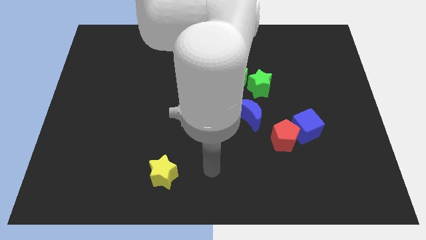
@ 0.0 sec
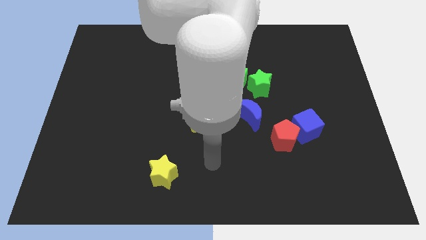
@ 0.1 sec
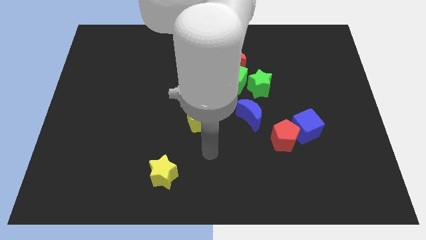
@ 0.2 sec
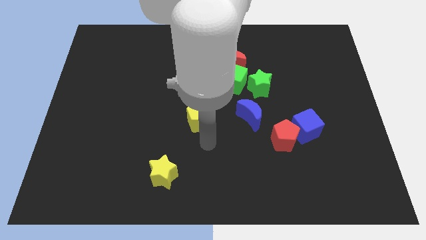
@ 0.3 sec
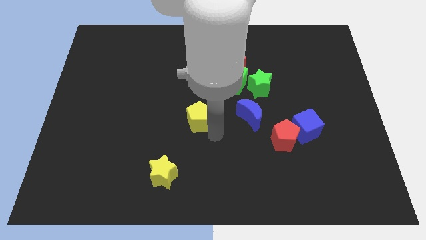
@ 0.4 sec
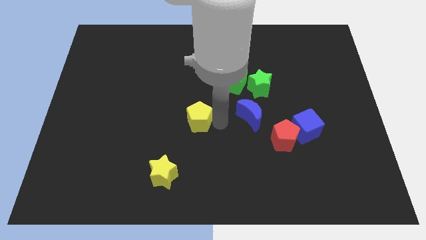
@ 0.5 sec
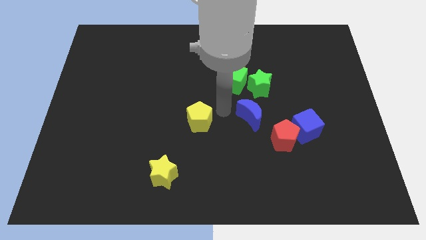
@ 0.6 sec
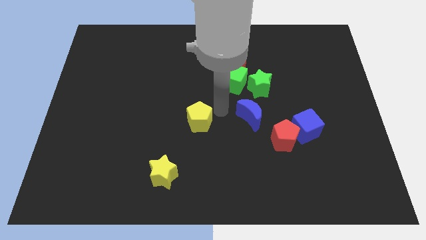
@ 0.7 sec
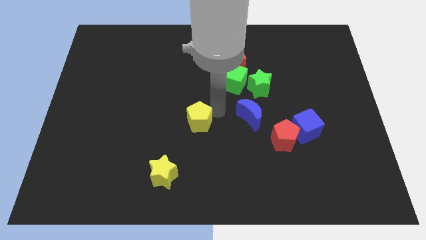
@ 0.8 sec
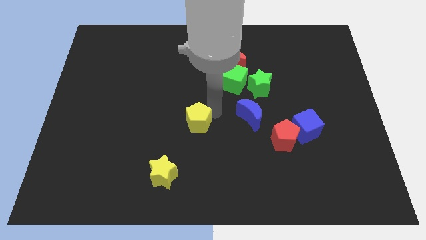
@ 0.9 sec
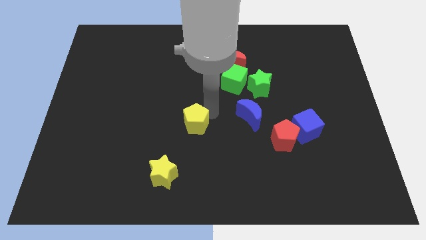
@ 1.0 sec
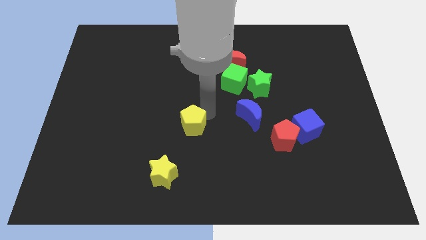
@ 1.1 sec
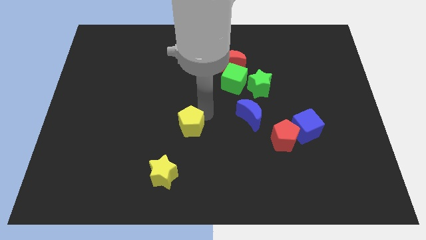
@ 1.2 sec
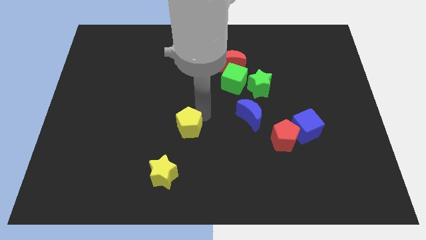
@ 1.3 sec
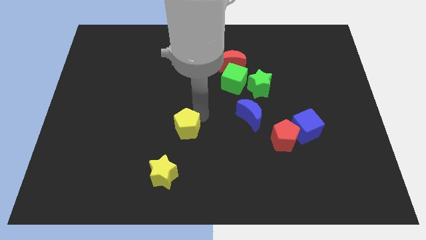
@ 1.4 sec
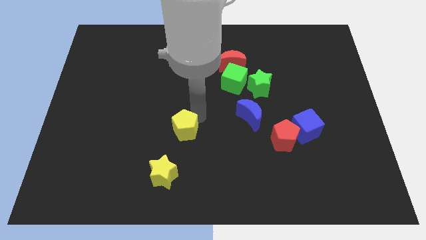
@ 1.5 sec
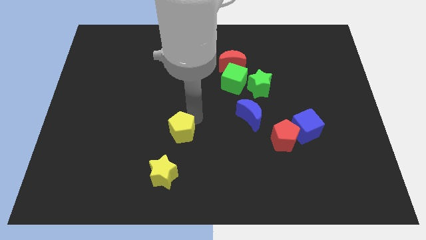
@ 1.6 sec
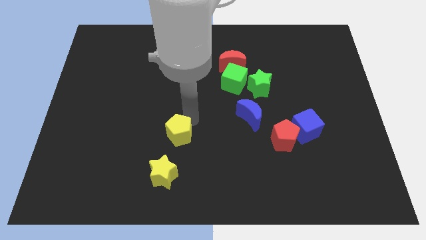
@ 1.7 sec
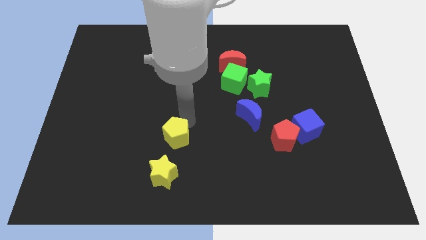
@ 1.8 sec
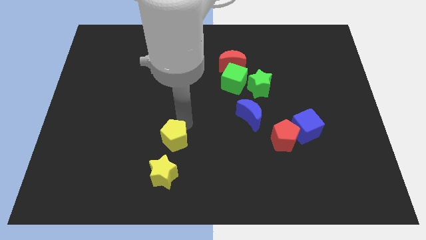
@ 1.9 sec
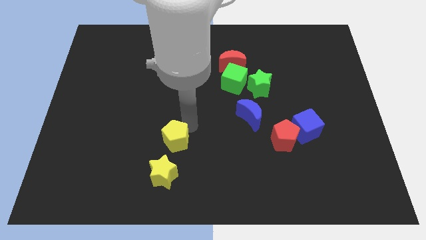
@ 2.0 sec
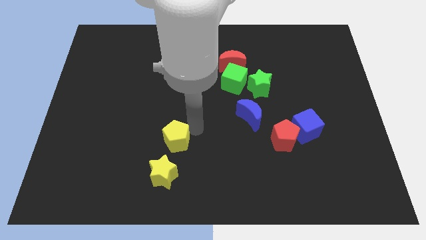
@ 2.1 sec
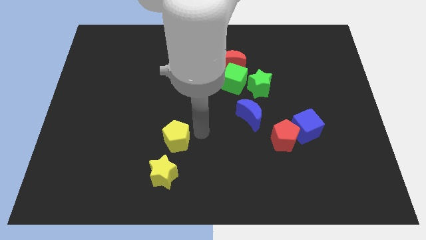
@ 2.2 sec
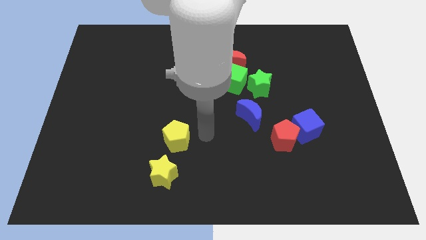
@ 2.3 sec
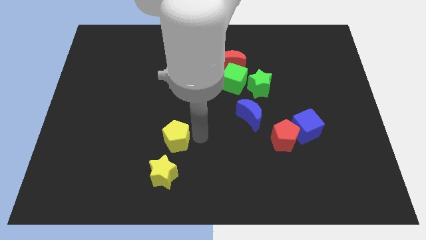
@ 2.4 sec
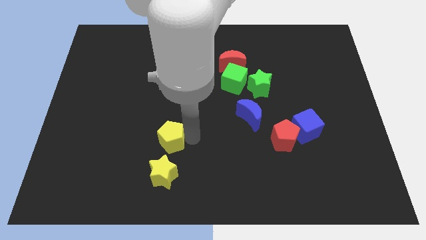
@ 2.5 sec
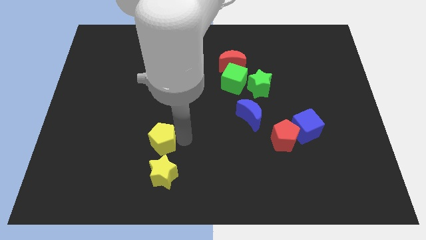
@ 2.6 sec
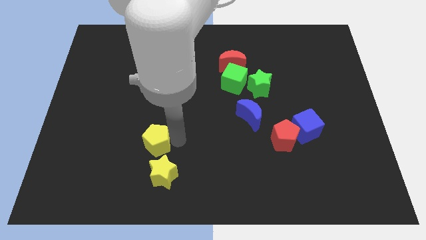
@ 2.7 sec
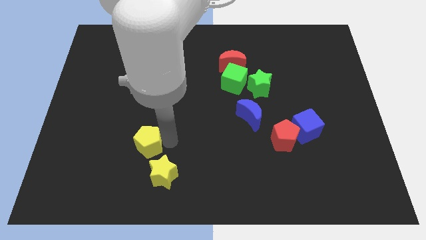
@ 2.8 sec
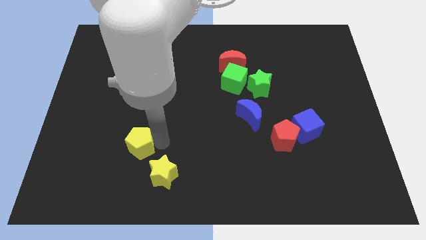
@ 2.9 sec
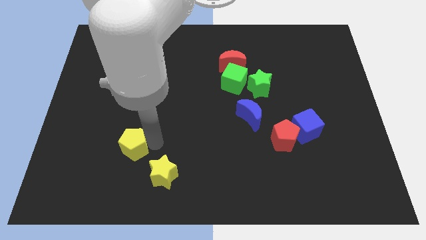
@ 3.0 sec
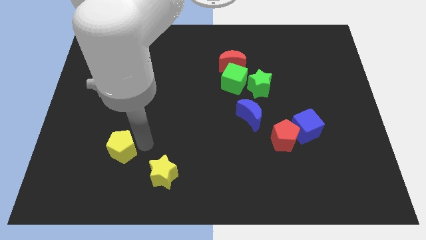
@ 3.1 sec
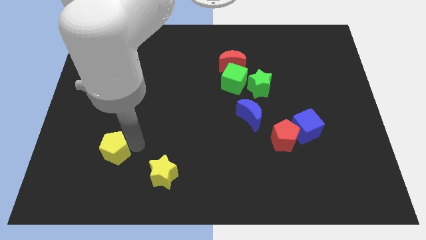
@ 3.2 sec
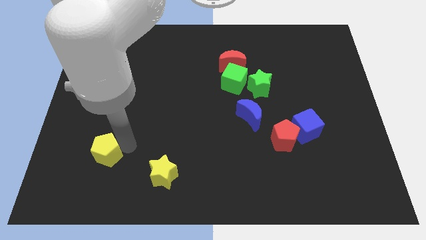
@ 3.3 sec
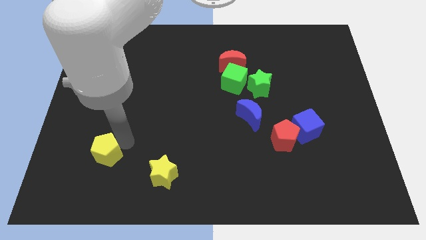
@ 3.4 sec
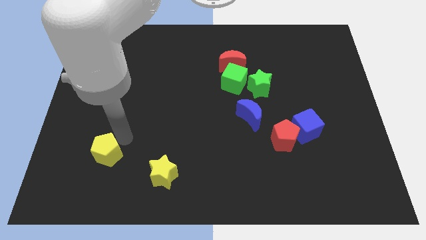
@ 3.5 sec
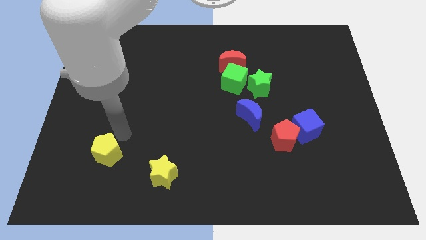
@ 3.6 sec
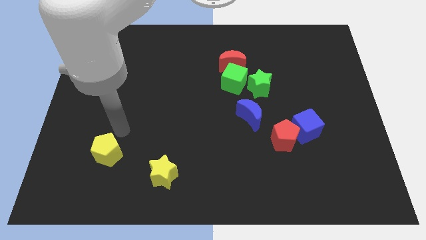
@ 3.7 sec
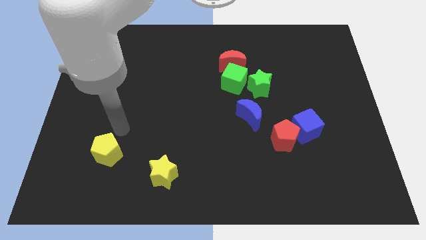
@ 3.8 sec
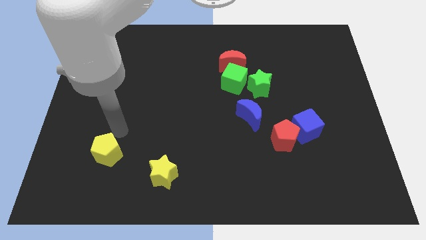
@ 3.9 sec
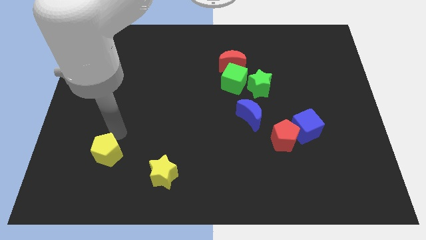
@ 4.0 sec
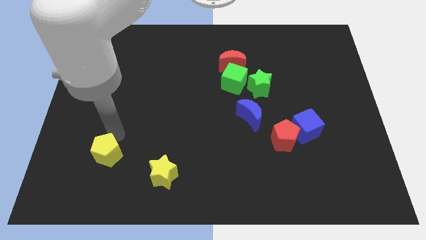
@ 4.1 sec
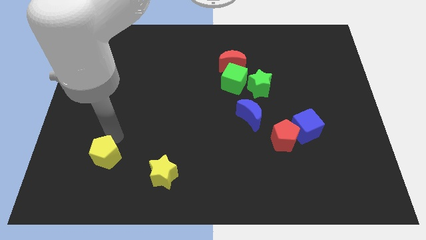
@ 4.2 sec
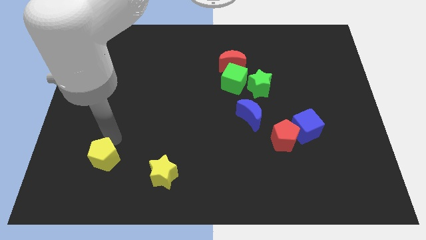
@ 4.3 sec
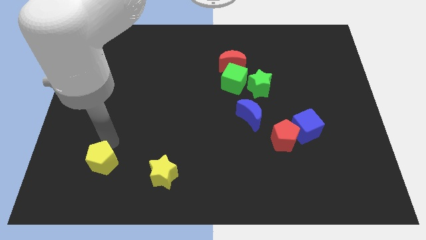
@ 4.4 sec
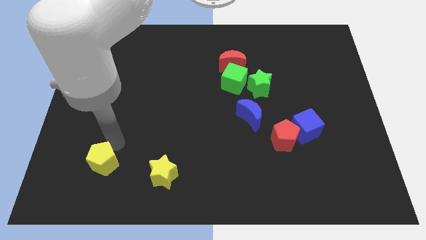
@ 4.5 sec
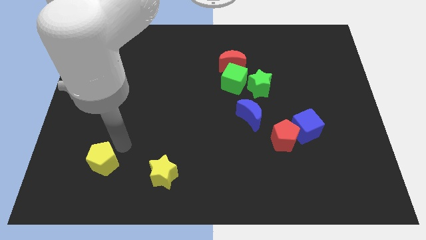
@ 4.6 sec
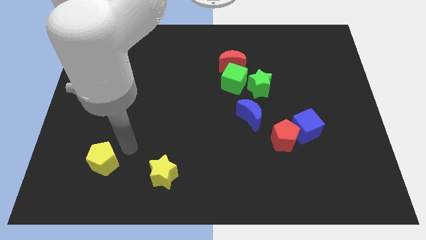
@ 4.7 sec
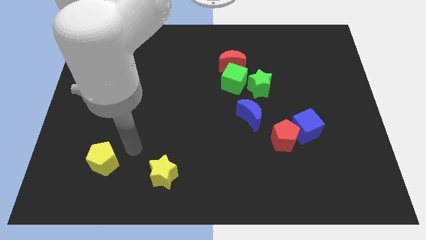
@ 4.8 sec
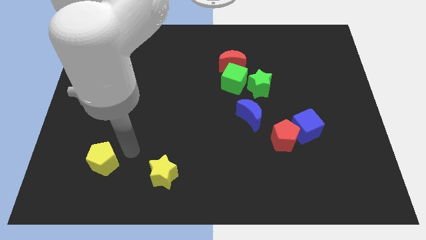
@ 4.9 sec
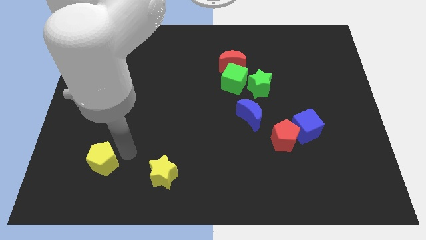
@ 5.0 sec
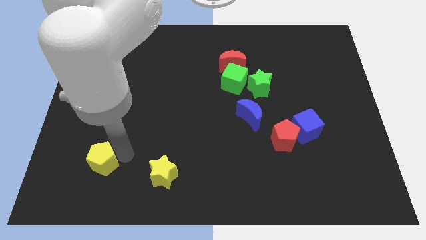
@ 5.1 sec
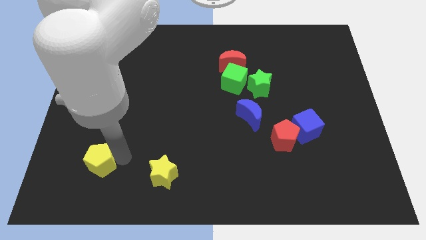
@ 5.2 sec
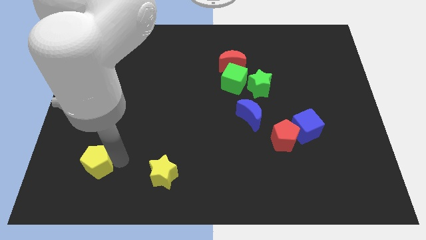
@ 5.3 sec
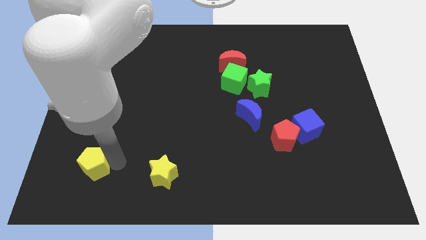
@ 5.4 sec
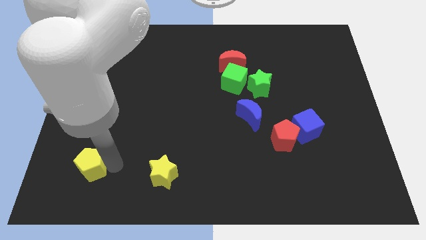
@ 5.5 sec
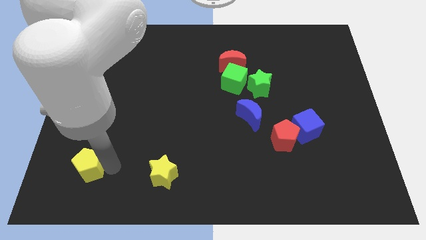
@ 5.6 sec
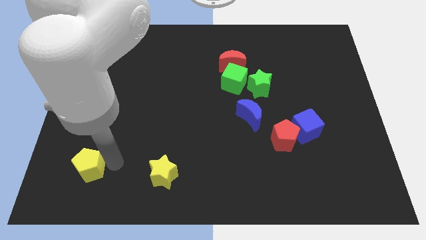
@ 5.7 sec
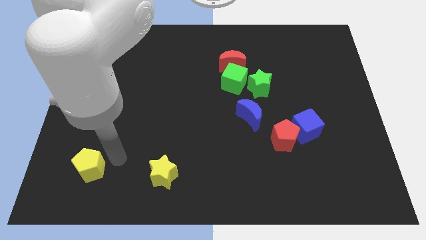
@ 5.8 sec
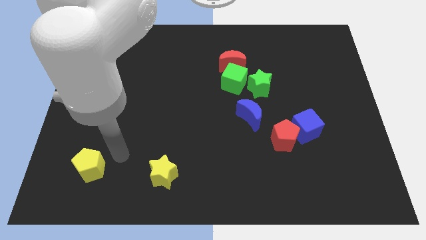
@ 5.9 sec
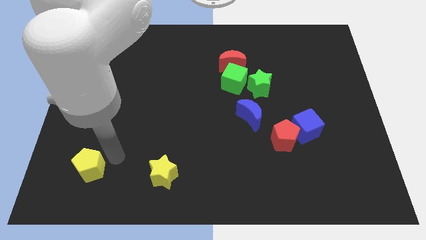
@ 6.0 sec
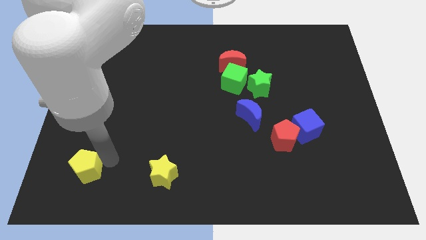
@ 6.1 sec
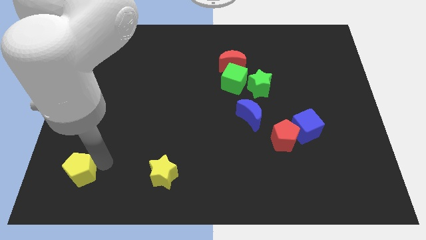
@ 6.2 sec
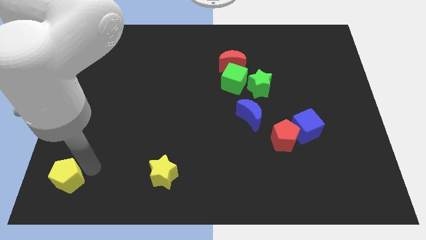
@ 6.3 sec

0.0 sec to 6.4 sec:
slide the yellow pentagon to the bottom left

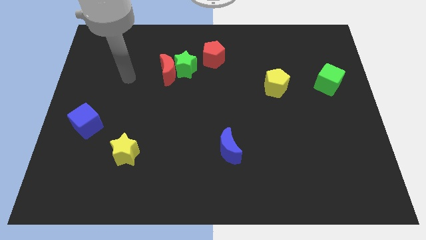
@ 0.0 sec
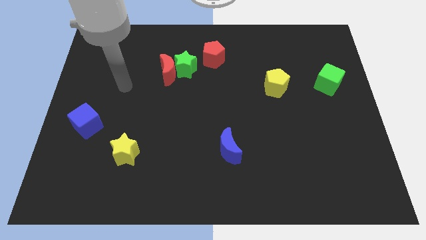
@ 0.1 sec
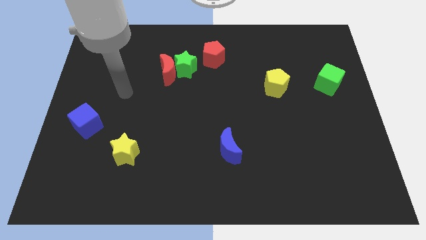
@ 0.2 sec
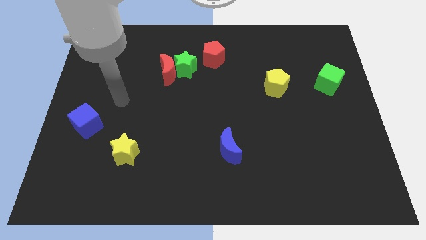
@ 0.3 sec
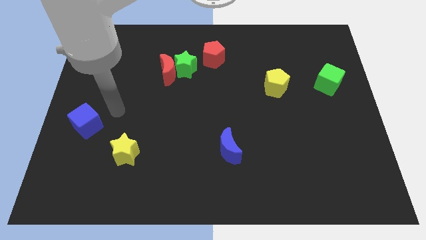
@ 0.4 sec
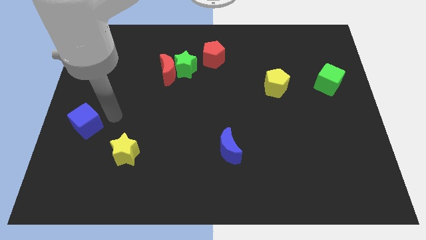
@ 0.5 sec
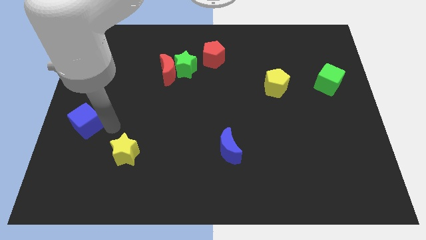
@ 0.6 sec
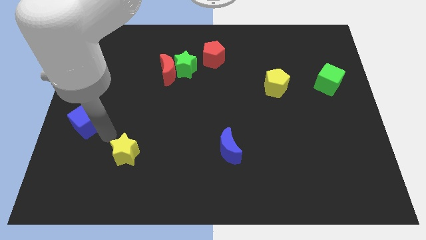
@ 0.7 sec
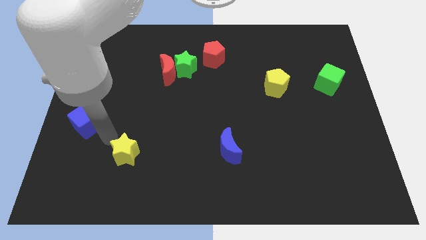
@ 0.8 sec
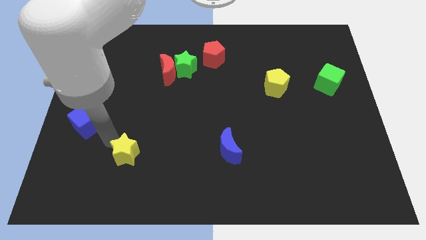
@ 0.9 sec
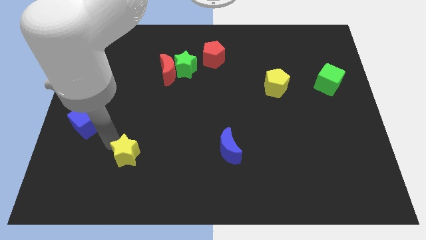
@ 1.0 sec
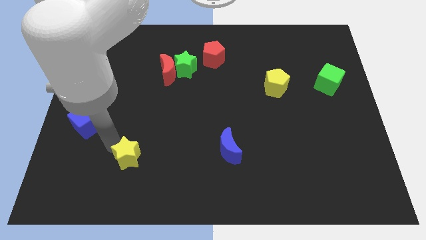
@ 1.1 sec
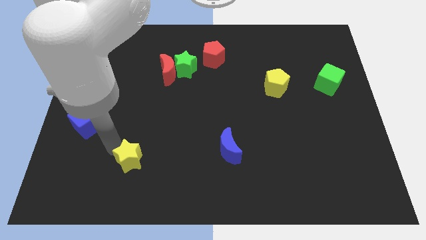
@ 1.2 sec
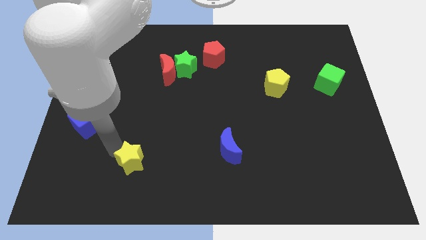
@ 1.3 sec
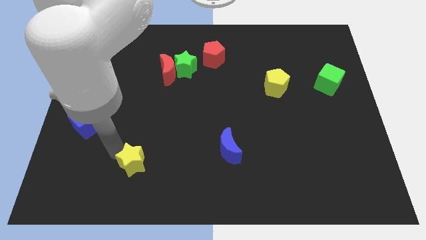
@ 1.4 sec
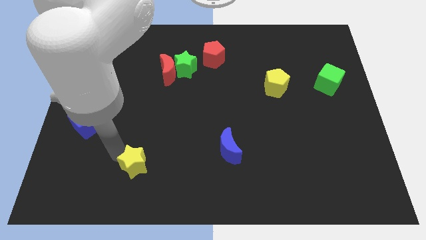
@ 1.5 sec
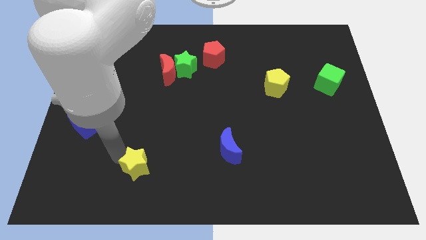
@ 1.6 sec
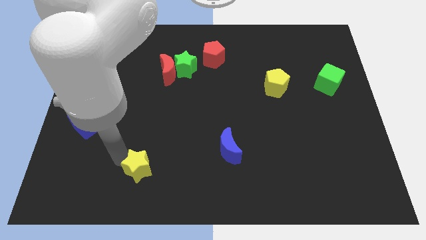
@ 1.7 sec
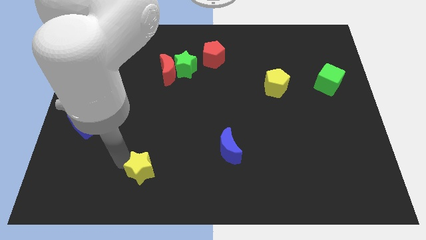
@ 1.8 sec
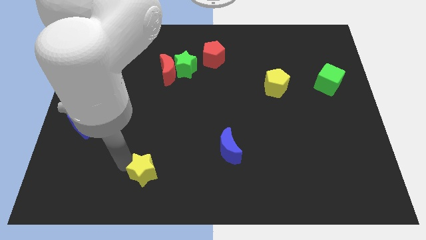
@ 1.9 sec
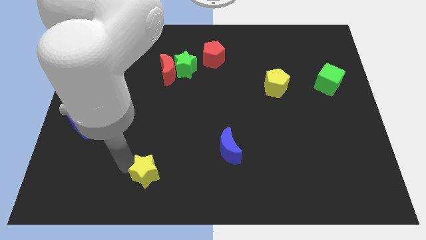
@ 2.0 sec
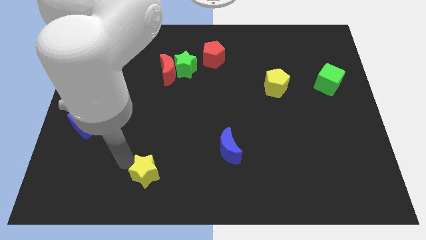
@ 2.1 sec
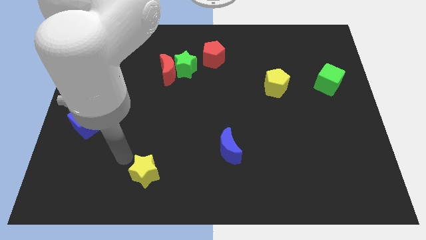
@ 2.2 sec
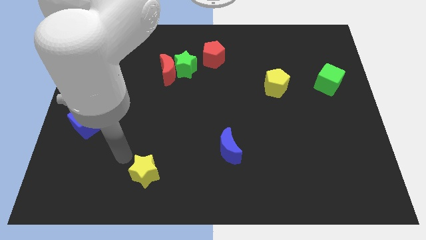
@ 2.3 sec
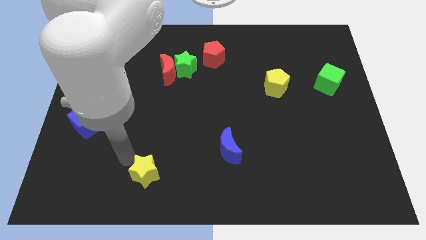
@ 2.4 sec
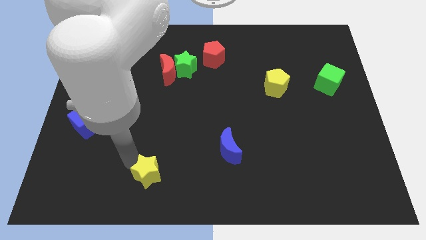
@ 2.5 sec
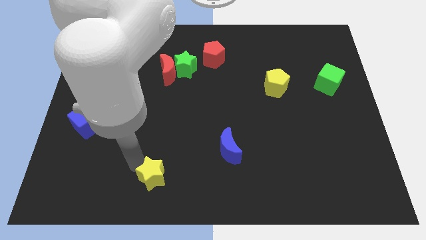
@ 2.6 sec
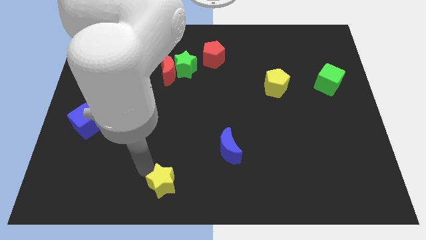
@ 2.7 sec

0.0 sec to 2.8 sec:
push the yellow star to the bottom
